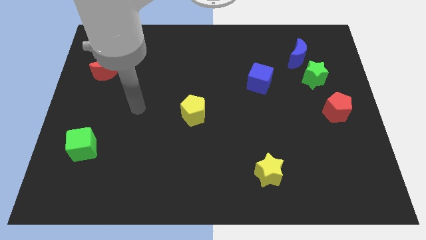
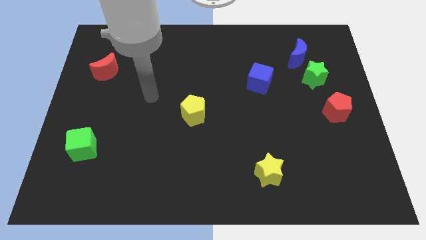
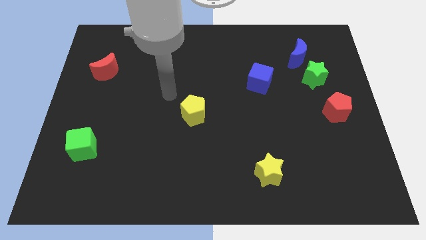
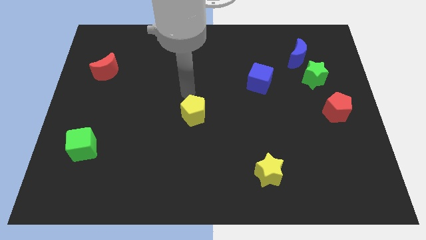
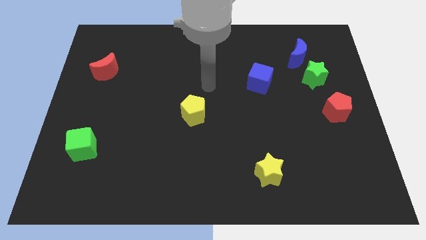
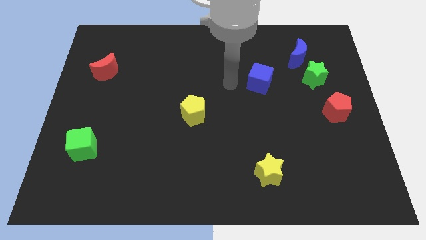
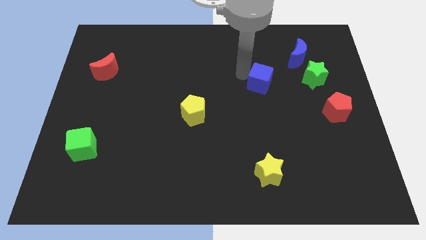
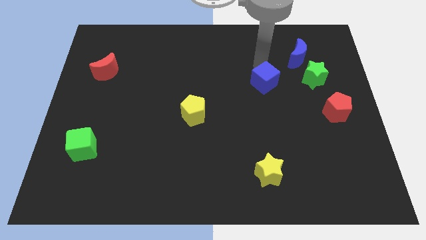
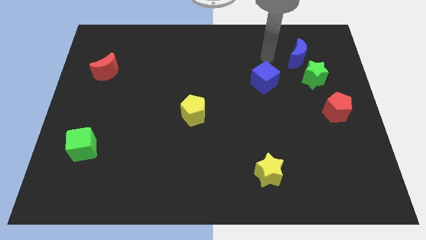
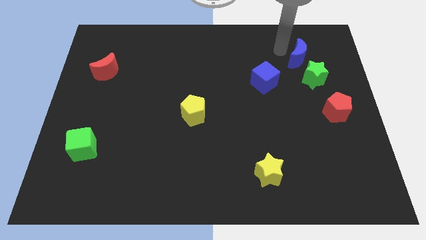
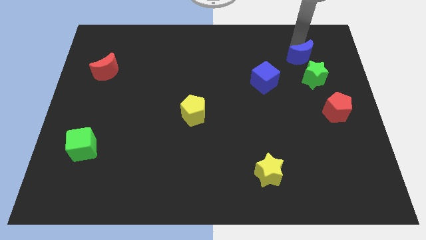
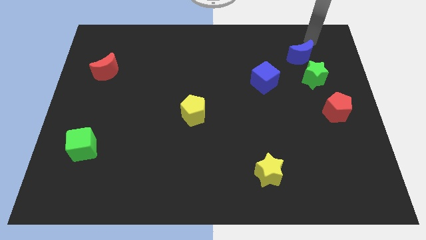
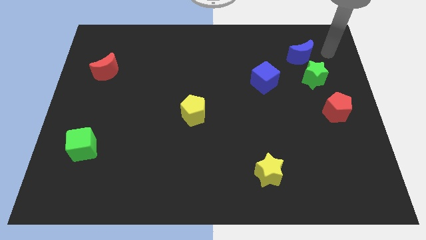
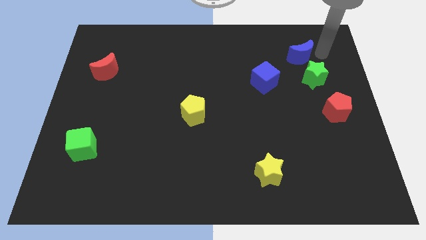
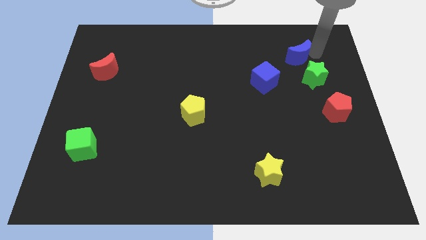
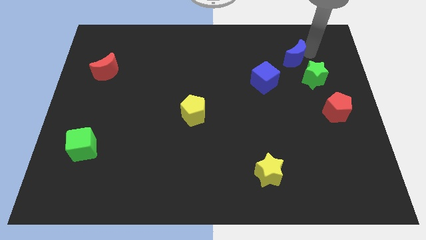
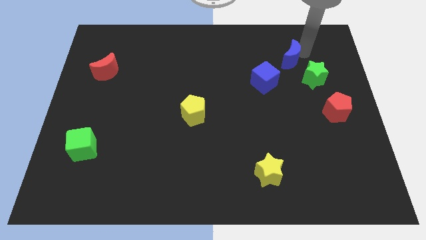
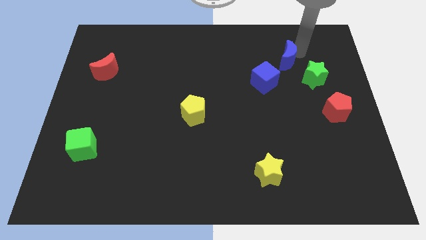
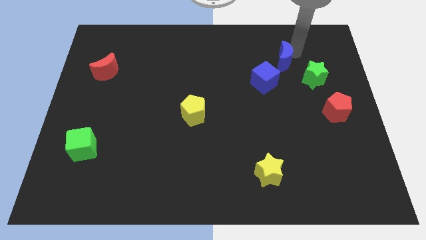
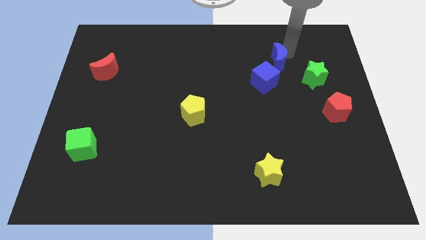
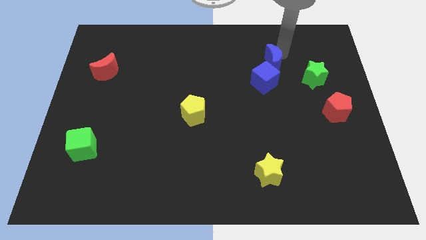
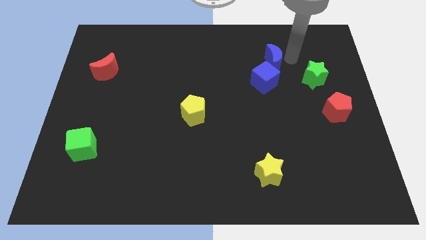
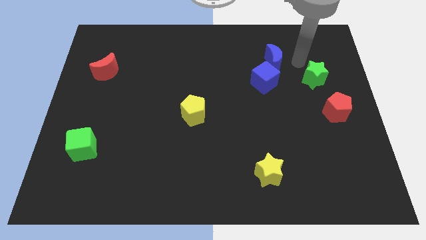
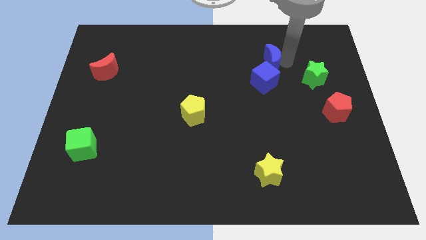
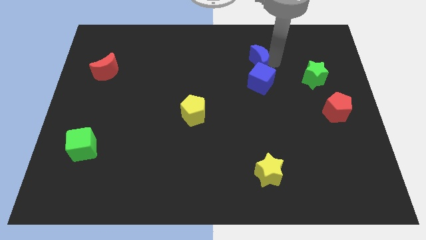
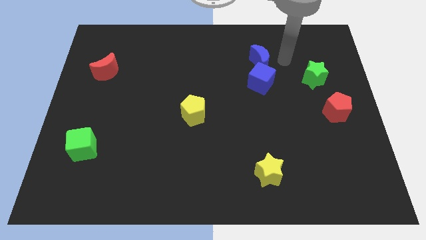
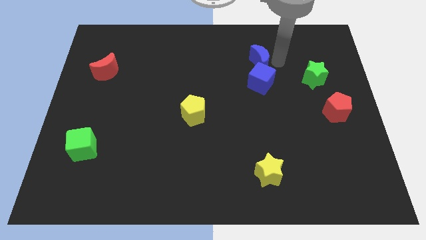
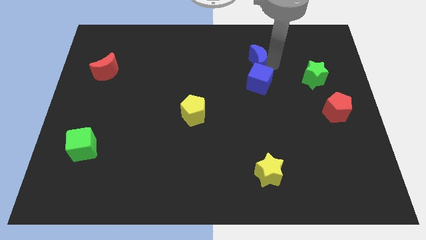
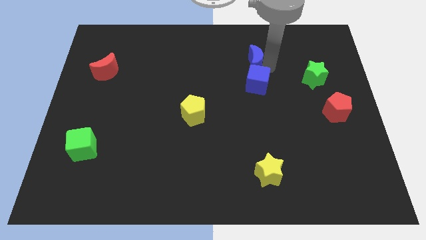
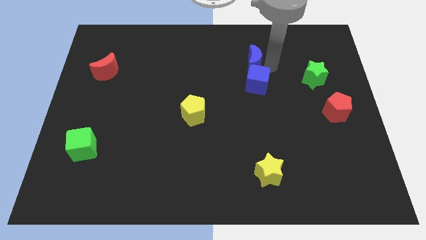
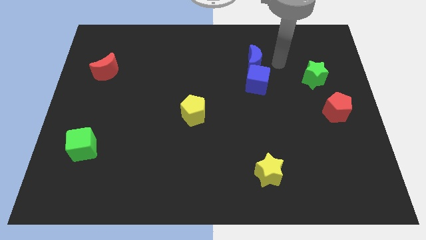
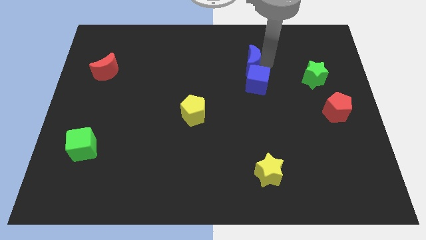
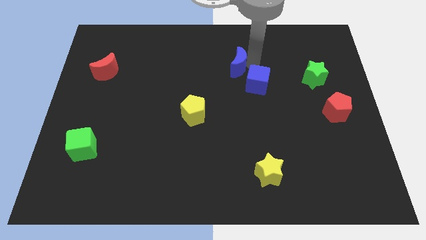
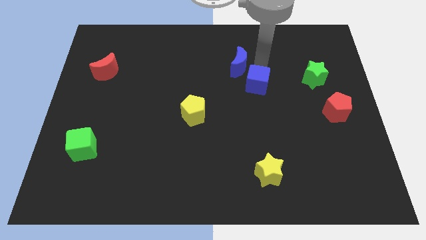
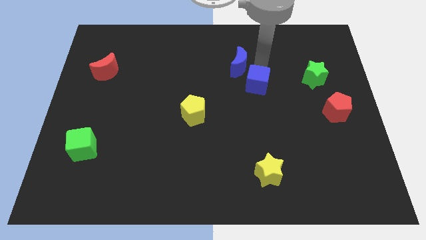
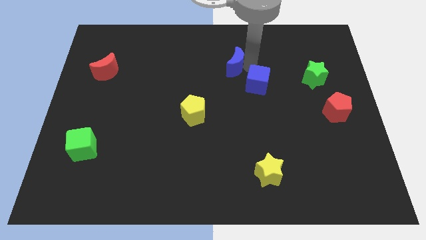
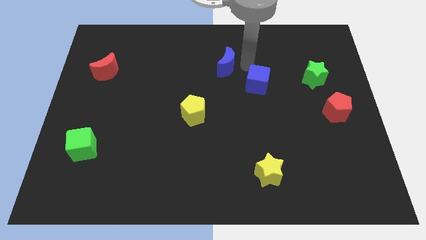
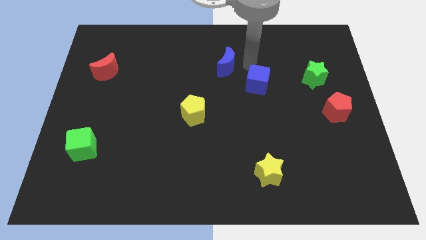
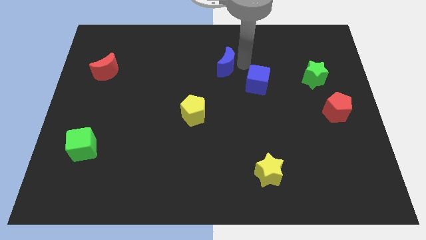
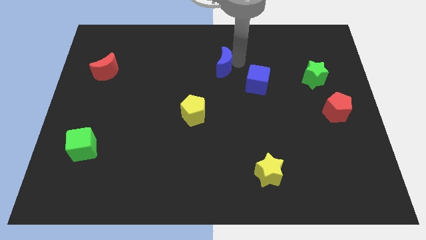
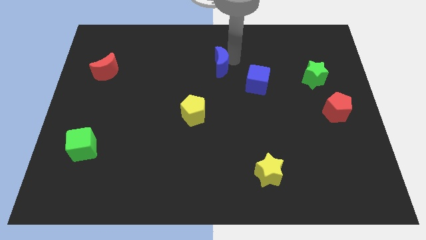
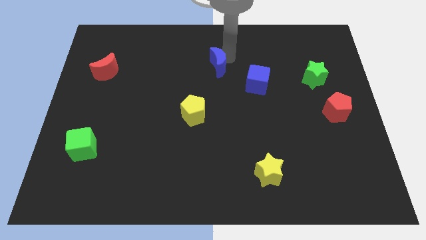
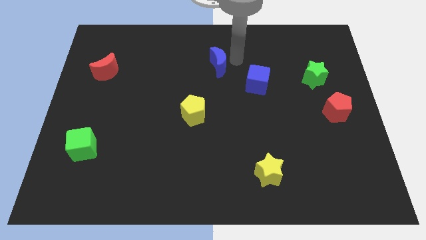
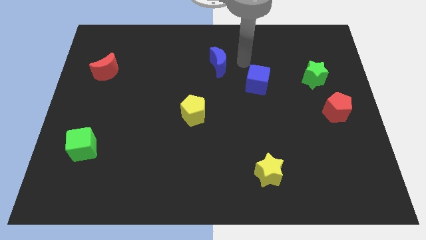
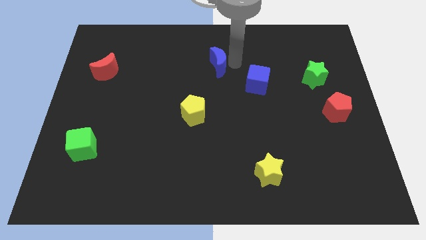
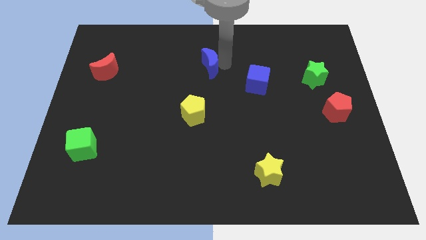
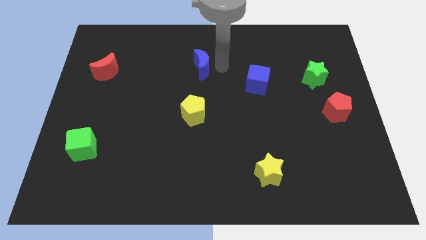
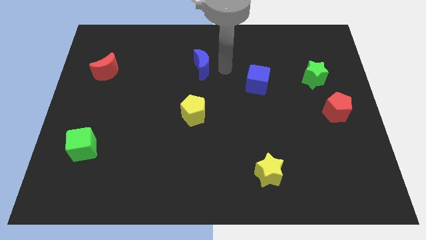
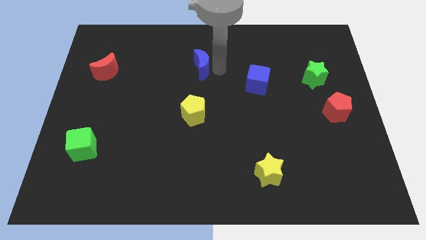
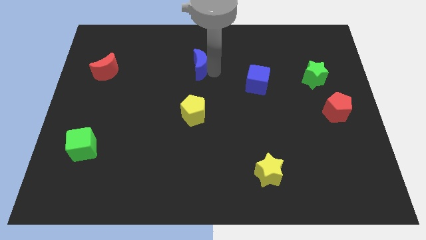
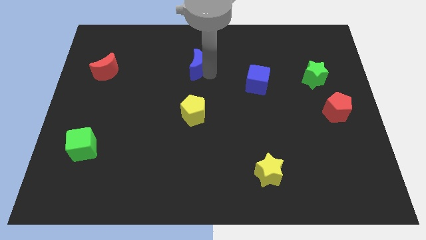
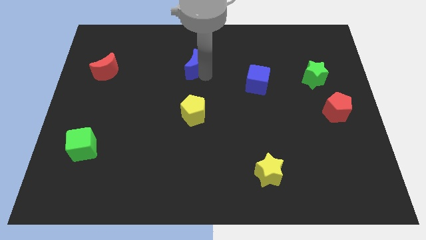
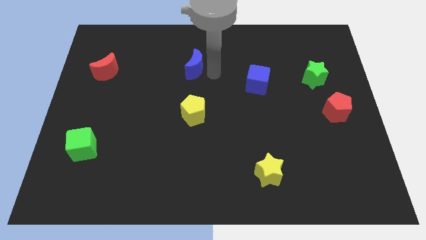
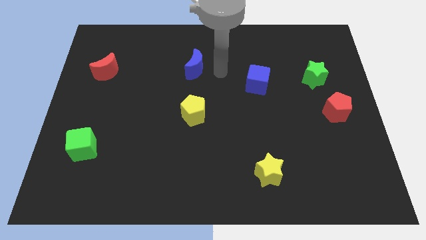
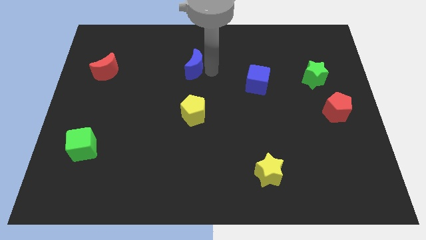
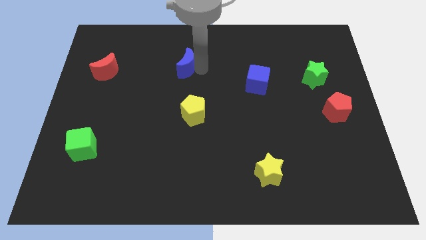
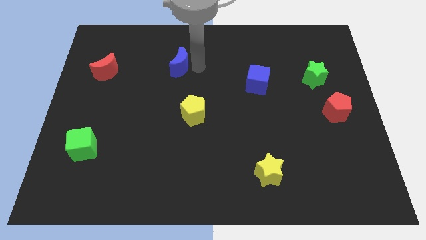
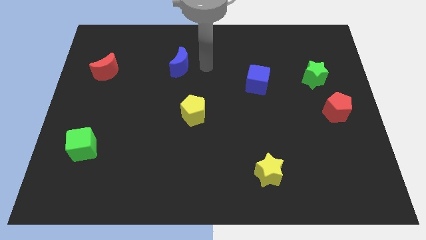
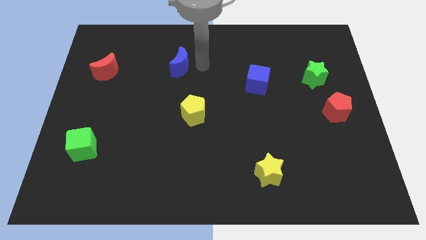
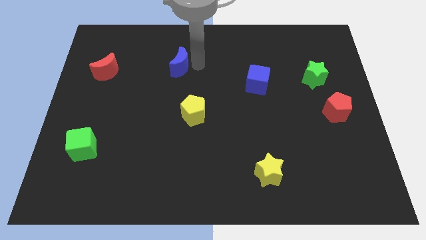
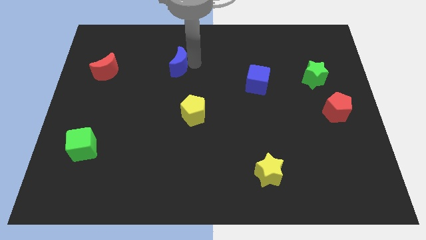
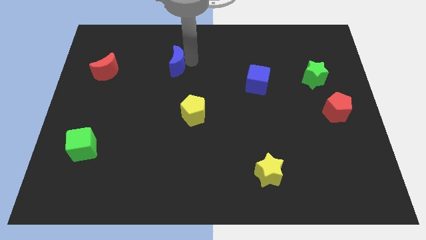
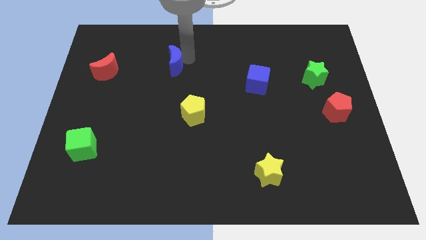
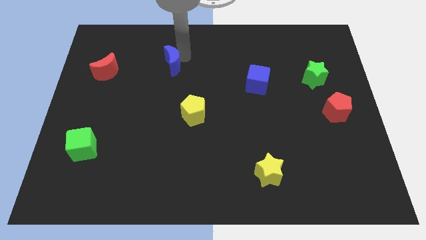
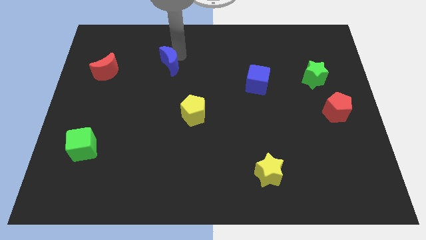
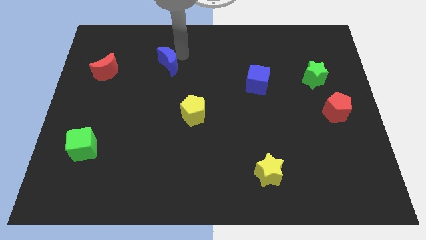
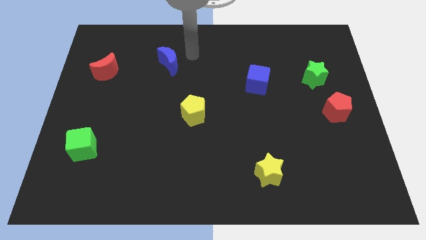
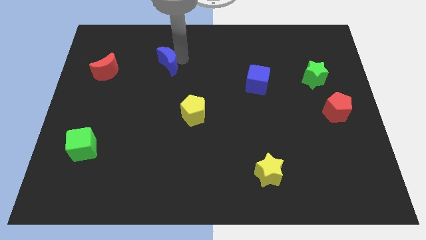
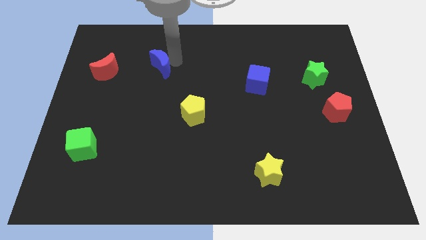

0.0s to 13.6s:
move the blue moon to the right of the red moon

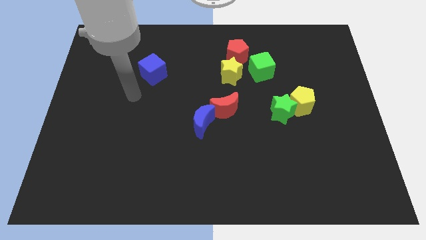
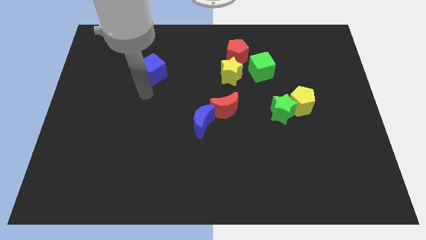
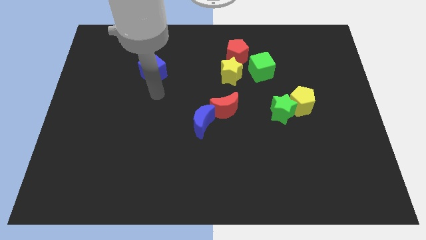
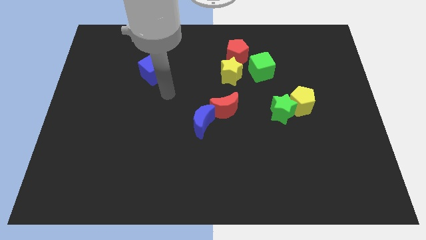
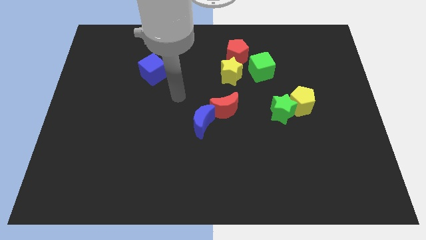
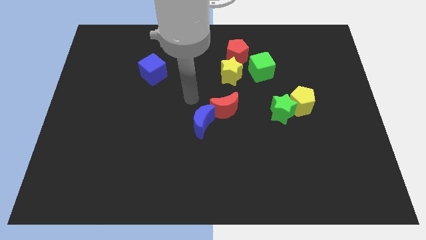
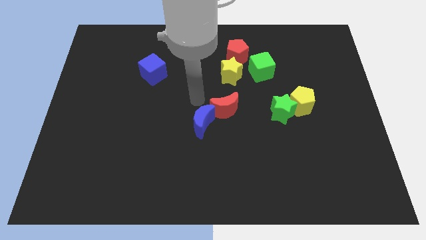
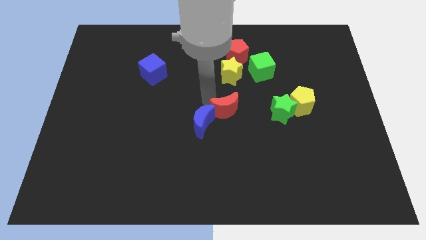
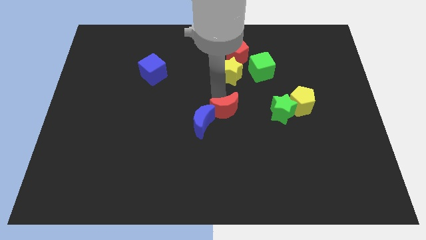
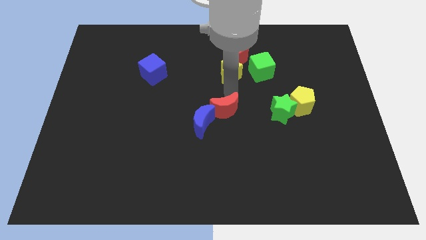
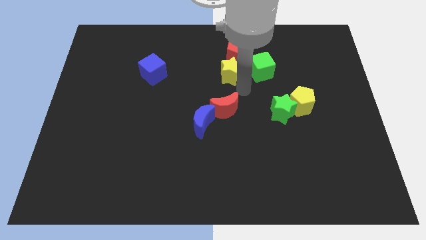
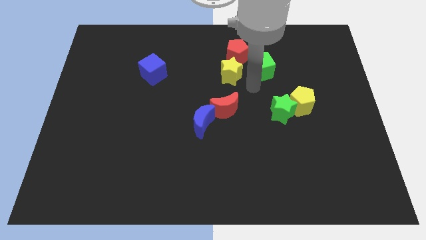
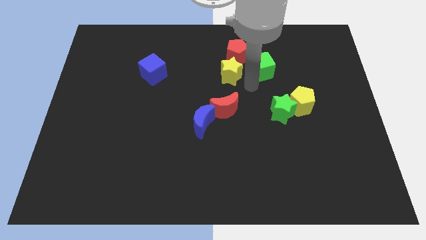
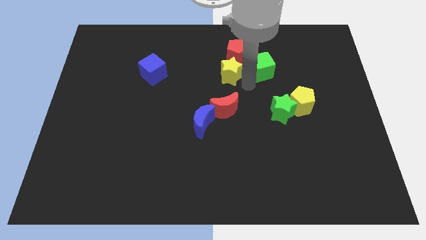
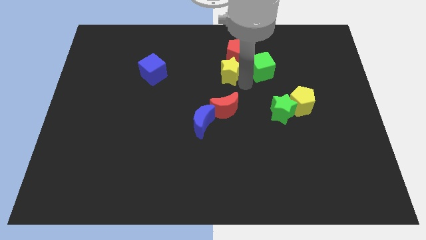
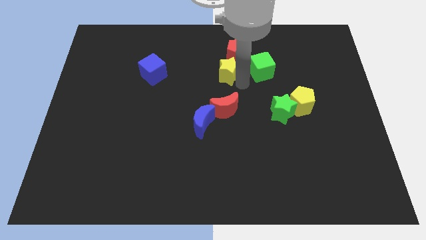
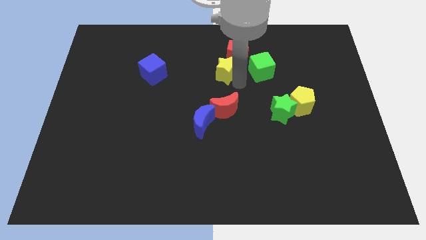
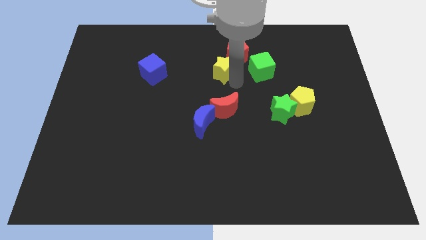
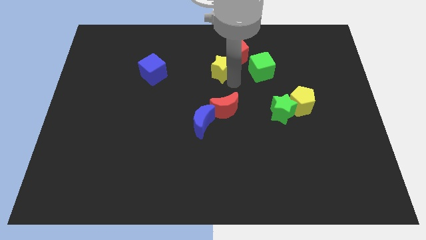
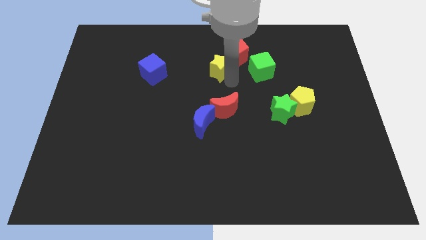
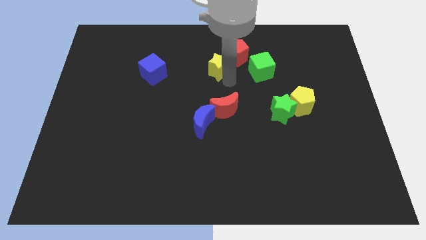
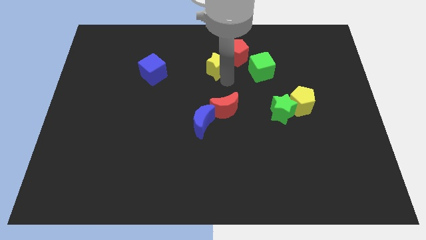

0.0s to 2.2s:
put the yellow star to the left of the red pentagon
